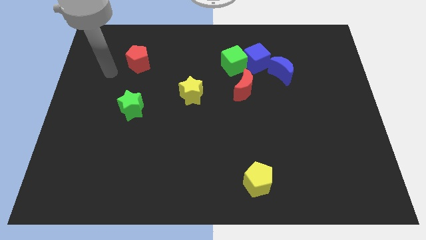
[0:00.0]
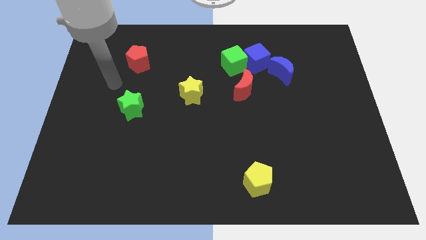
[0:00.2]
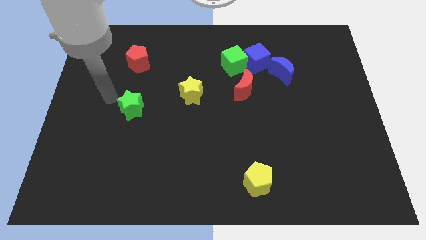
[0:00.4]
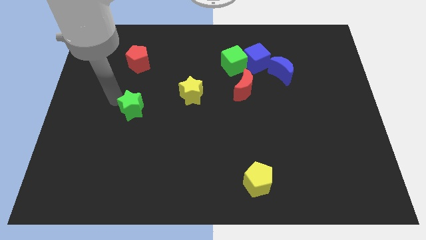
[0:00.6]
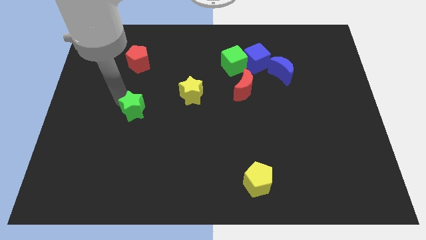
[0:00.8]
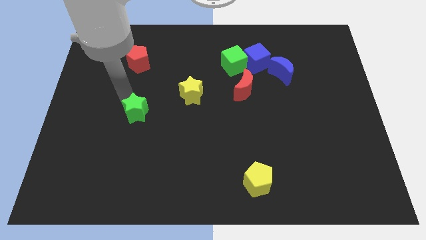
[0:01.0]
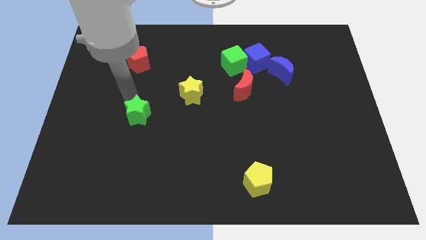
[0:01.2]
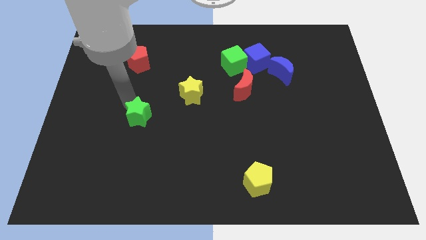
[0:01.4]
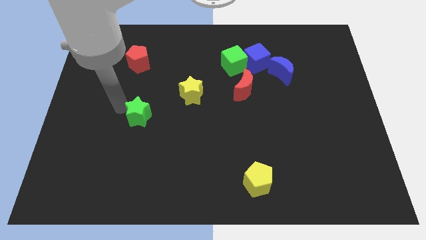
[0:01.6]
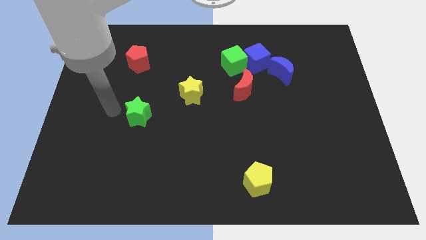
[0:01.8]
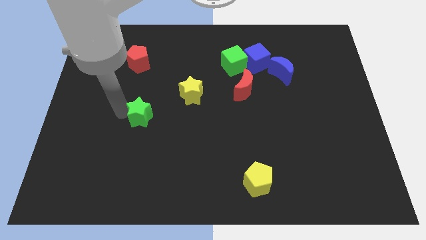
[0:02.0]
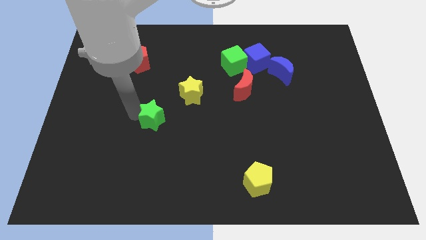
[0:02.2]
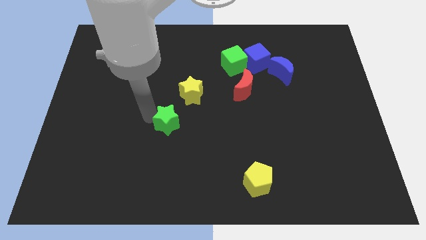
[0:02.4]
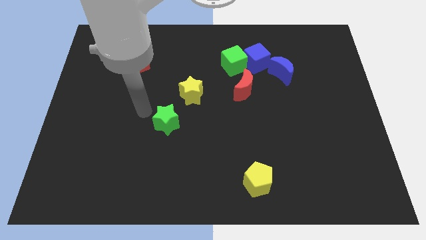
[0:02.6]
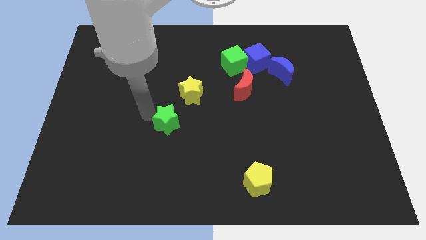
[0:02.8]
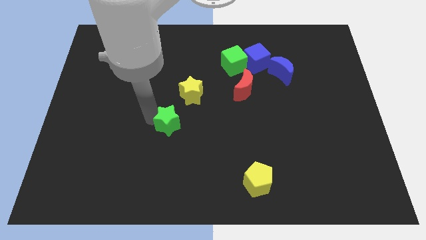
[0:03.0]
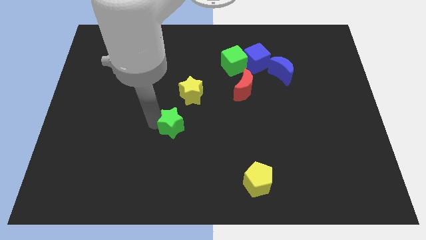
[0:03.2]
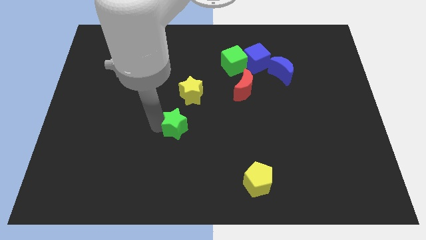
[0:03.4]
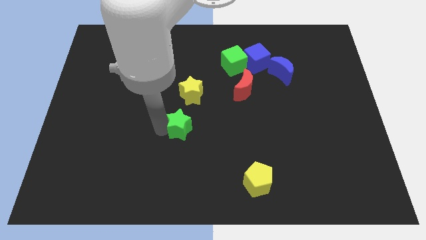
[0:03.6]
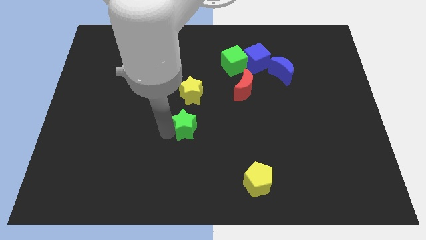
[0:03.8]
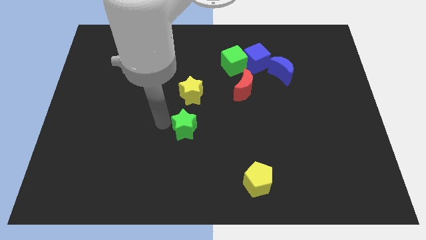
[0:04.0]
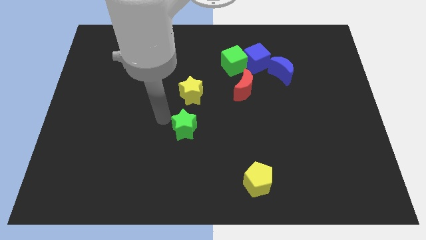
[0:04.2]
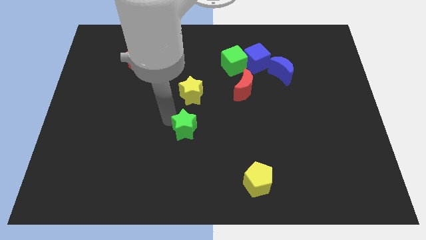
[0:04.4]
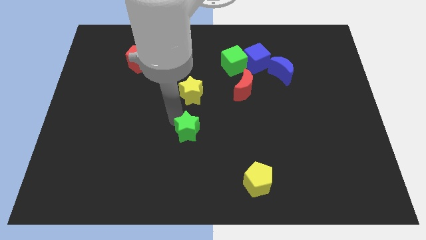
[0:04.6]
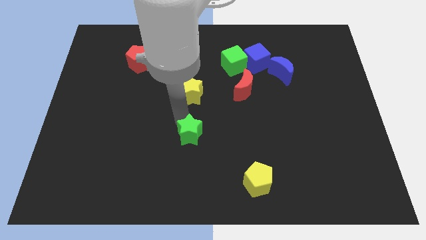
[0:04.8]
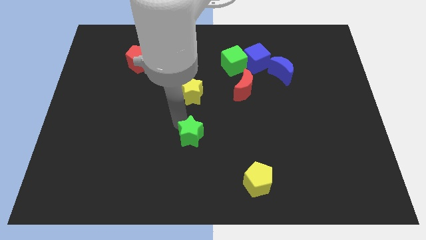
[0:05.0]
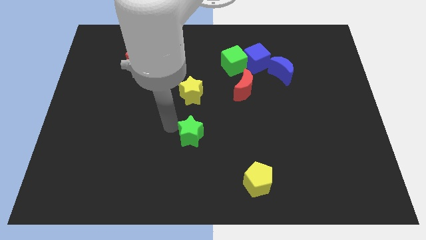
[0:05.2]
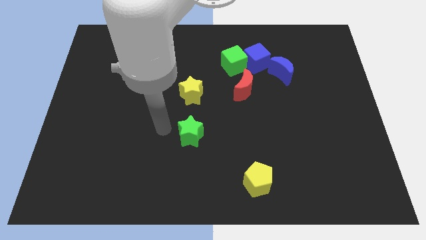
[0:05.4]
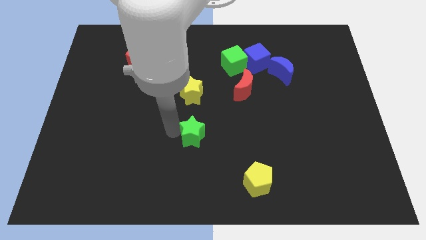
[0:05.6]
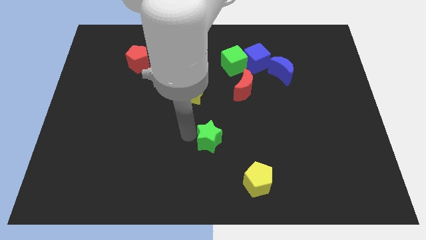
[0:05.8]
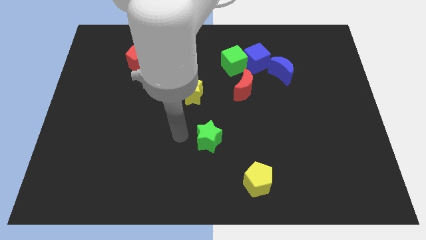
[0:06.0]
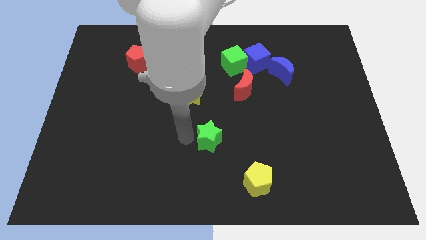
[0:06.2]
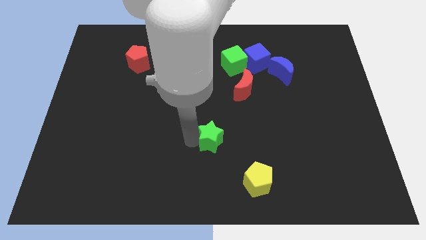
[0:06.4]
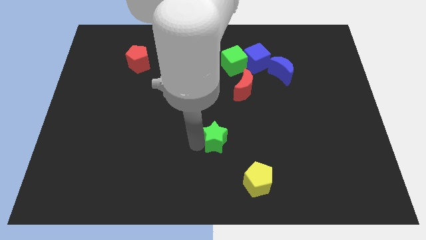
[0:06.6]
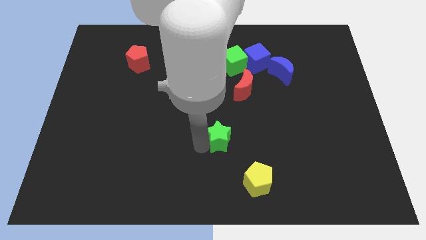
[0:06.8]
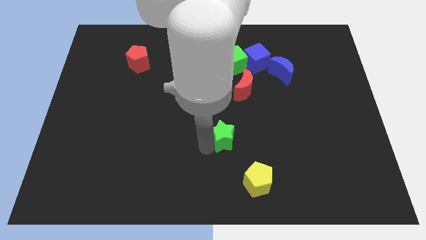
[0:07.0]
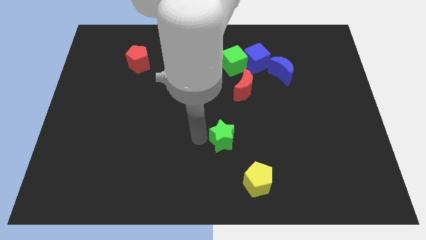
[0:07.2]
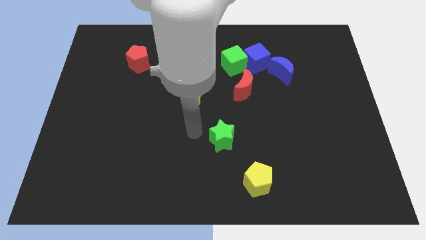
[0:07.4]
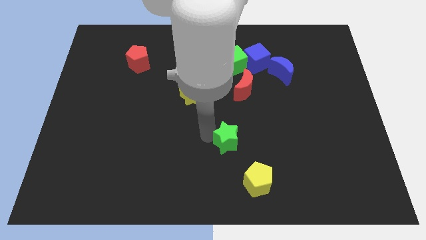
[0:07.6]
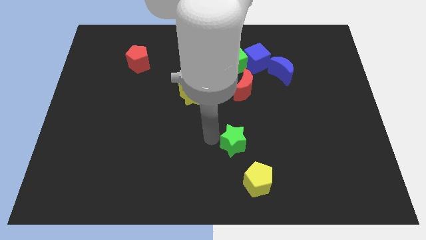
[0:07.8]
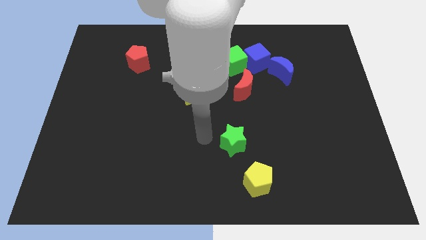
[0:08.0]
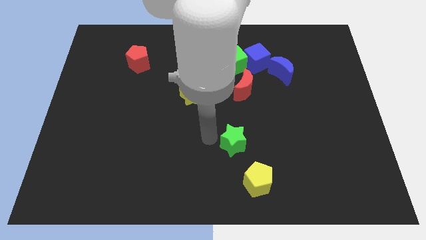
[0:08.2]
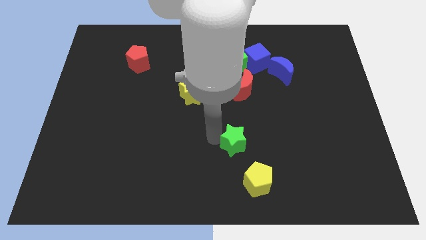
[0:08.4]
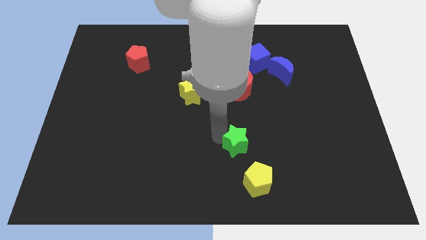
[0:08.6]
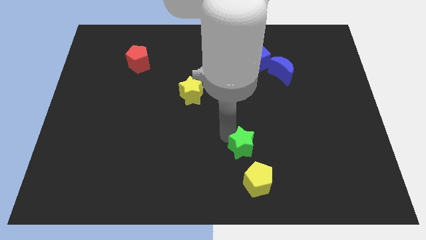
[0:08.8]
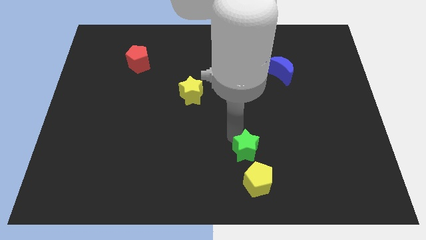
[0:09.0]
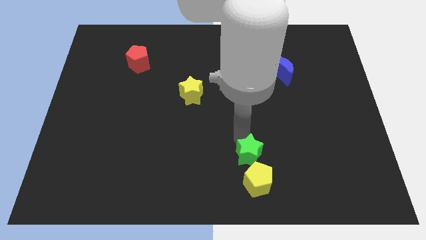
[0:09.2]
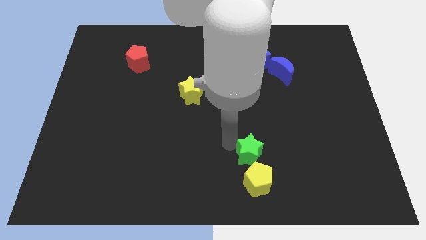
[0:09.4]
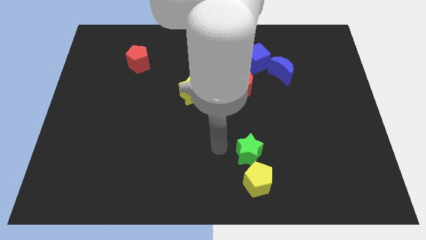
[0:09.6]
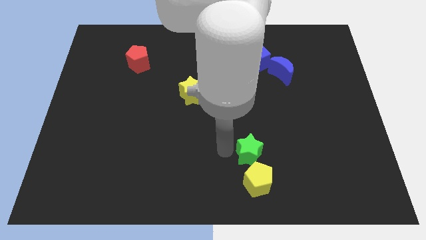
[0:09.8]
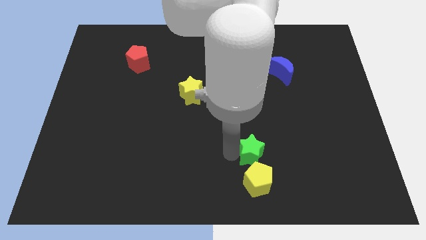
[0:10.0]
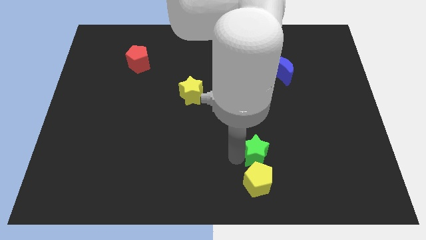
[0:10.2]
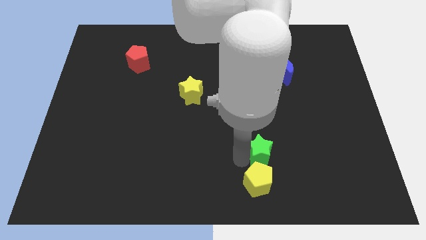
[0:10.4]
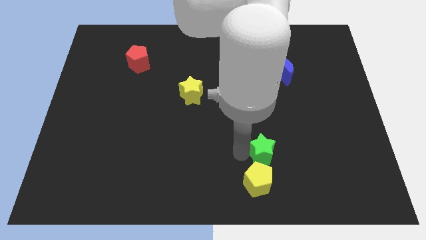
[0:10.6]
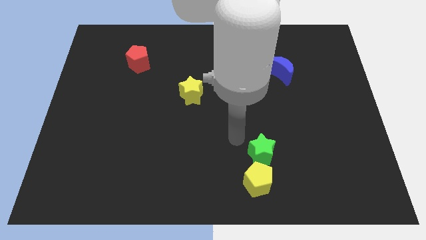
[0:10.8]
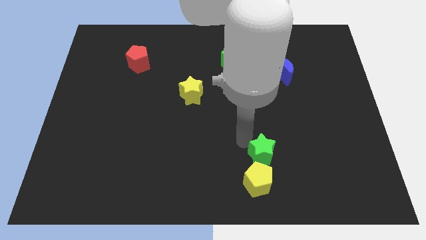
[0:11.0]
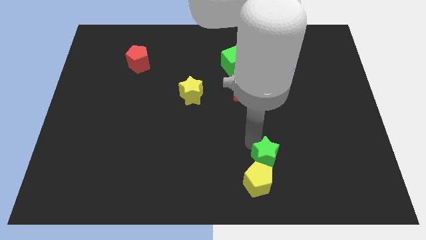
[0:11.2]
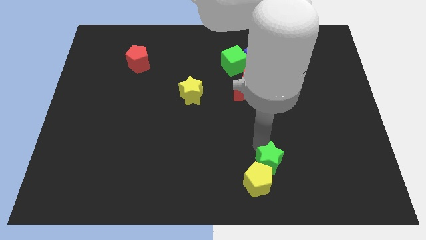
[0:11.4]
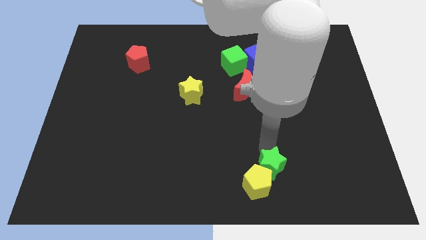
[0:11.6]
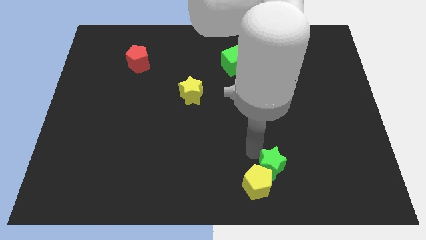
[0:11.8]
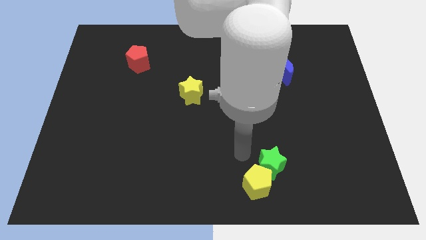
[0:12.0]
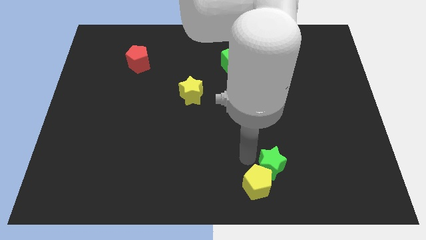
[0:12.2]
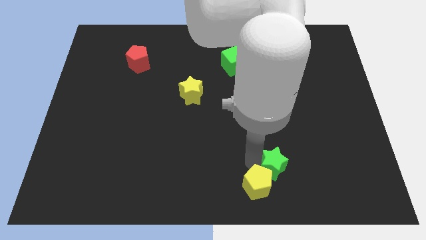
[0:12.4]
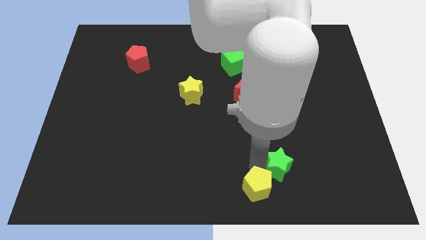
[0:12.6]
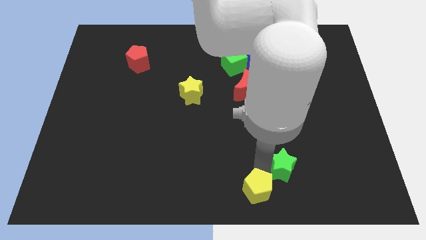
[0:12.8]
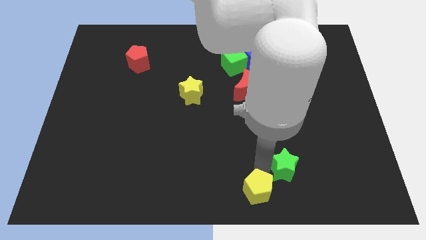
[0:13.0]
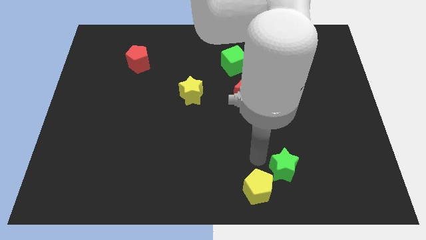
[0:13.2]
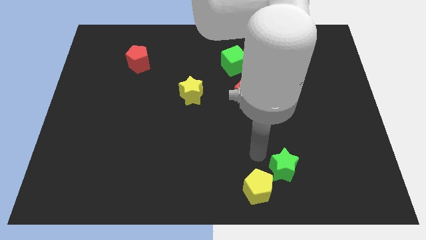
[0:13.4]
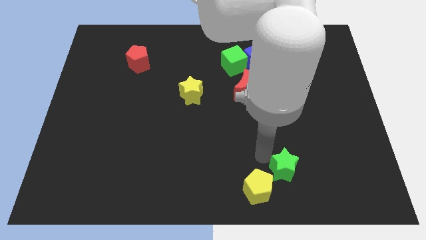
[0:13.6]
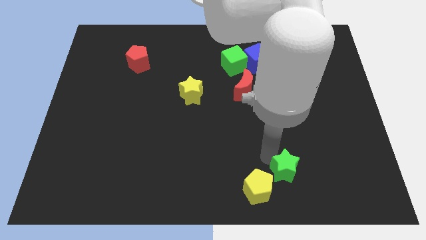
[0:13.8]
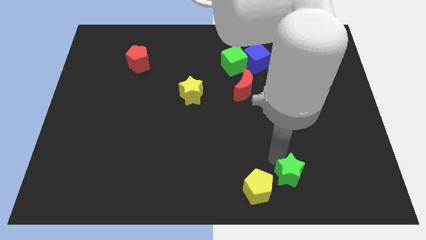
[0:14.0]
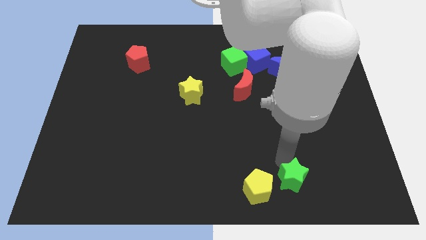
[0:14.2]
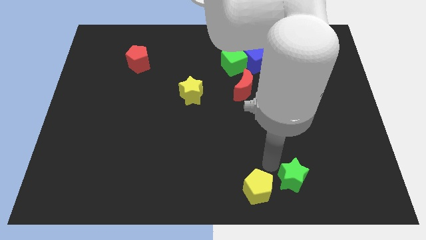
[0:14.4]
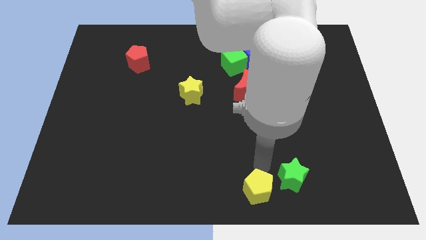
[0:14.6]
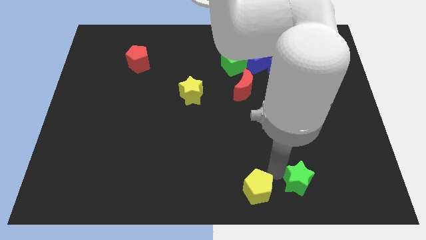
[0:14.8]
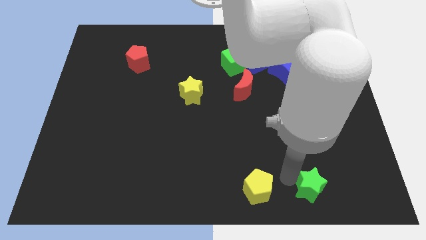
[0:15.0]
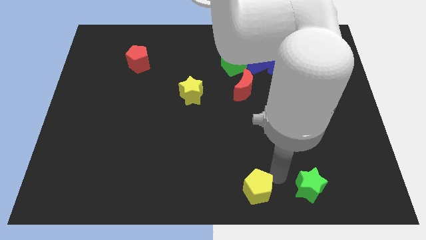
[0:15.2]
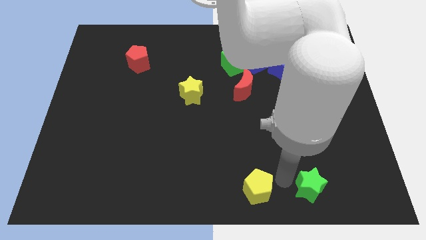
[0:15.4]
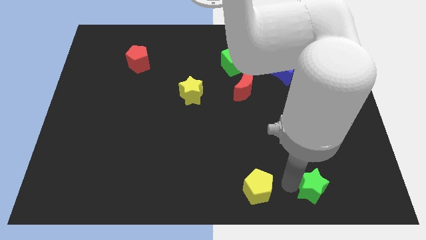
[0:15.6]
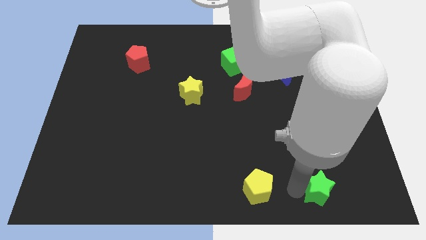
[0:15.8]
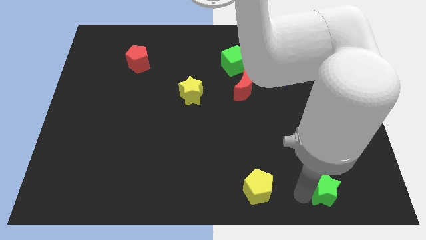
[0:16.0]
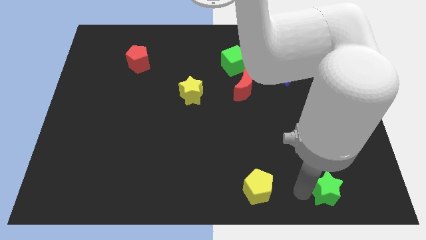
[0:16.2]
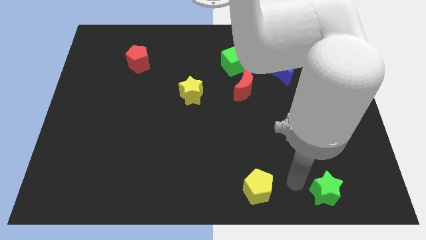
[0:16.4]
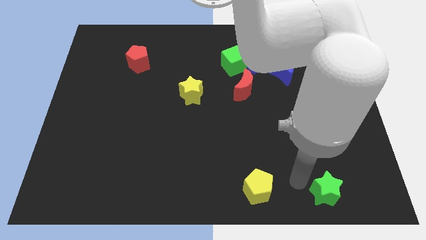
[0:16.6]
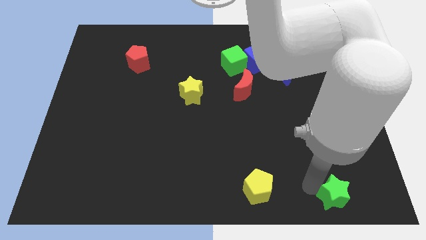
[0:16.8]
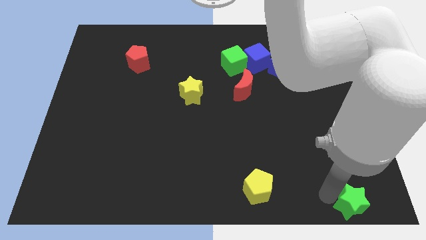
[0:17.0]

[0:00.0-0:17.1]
push the green star to the bottom right of the board
